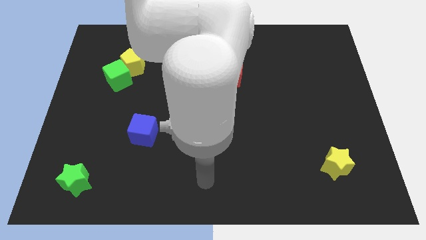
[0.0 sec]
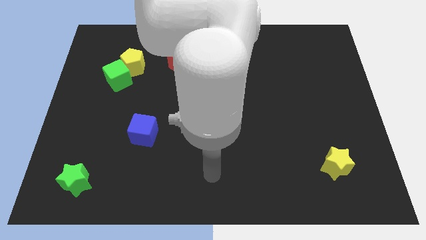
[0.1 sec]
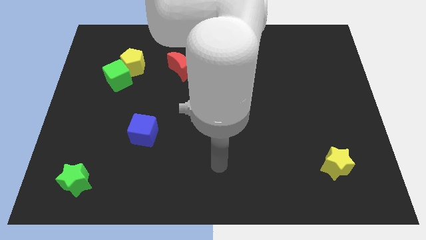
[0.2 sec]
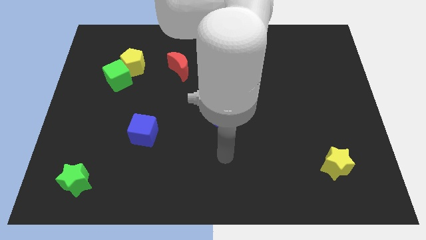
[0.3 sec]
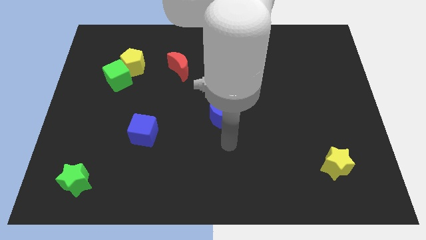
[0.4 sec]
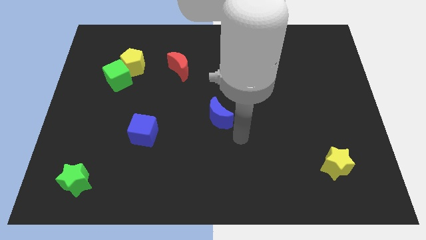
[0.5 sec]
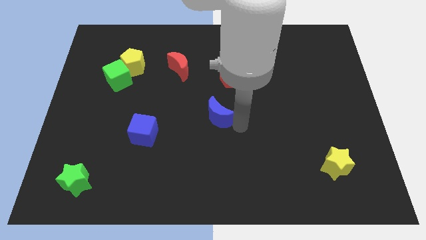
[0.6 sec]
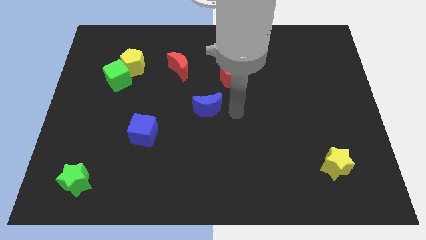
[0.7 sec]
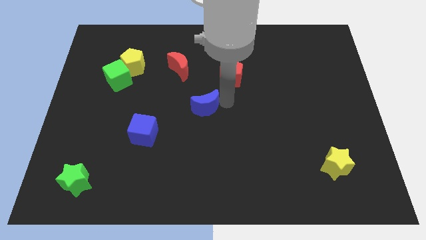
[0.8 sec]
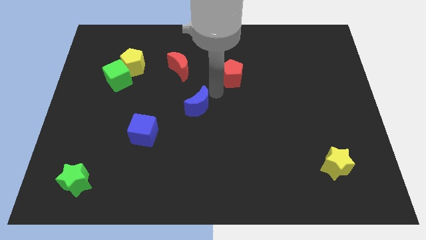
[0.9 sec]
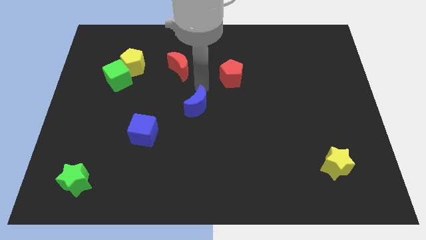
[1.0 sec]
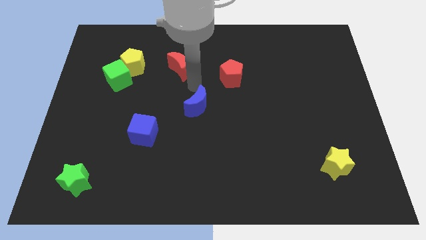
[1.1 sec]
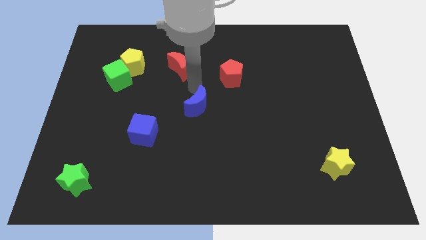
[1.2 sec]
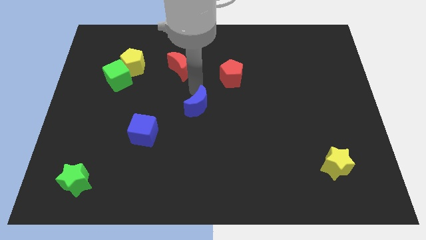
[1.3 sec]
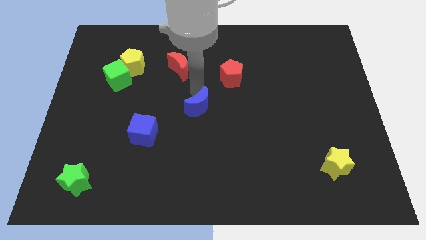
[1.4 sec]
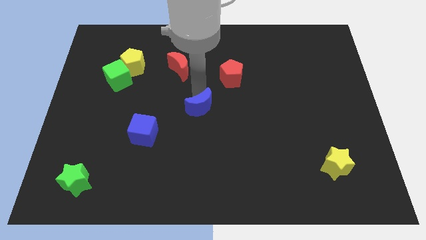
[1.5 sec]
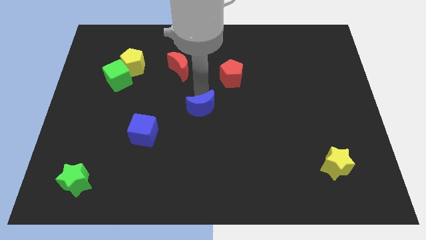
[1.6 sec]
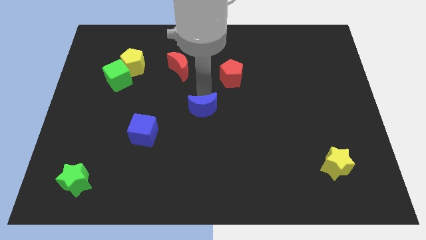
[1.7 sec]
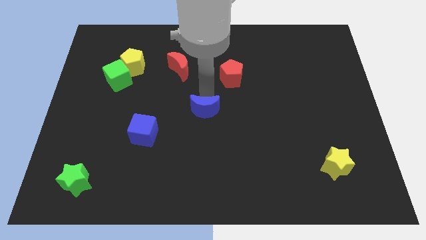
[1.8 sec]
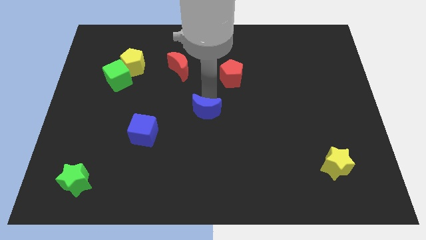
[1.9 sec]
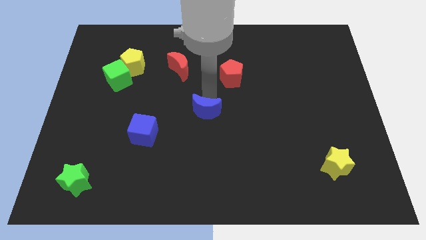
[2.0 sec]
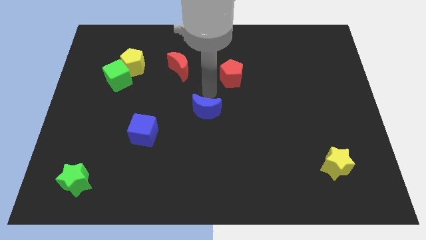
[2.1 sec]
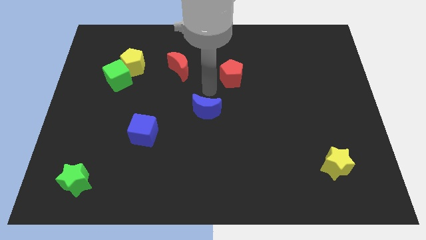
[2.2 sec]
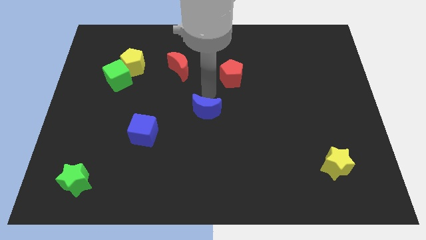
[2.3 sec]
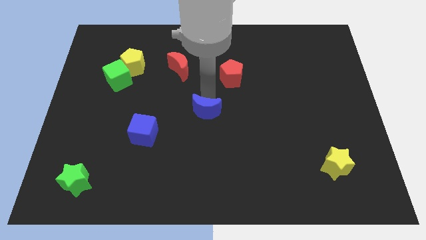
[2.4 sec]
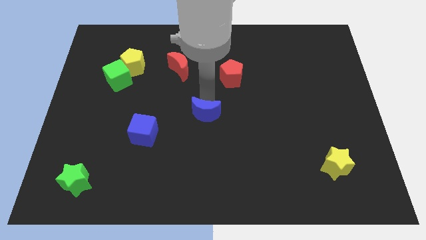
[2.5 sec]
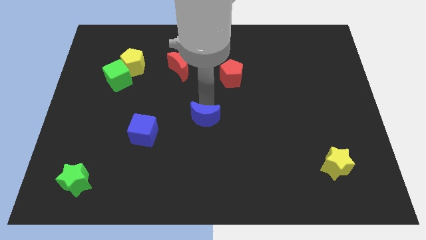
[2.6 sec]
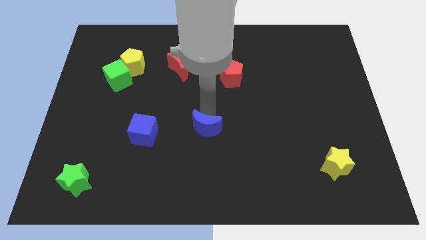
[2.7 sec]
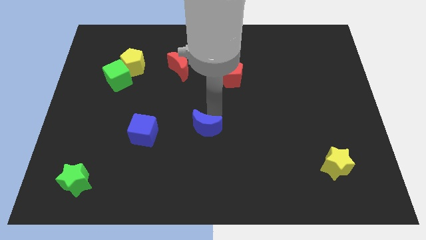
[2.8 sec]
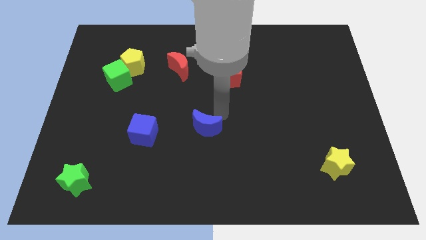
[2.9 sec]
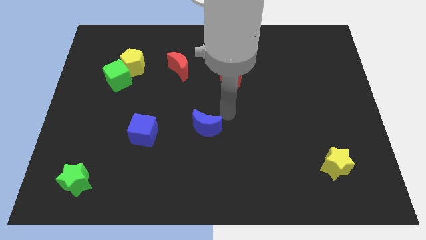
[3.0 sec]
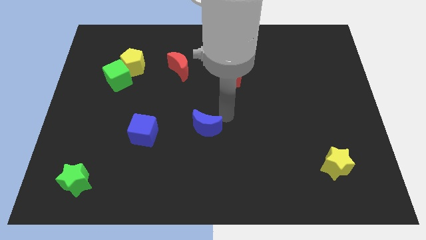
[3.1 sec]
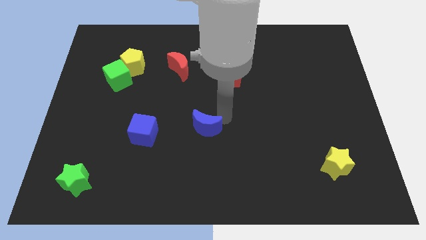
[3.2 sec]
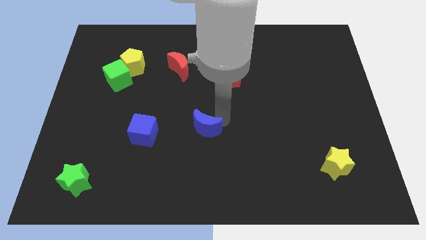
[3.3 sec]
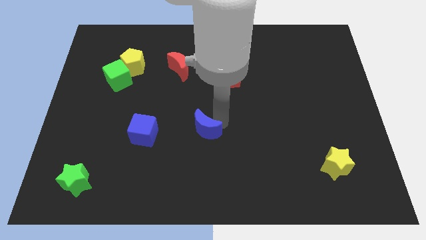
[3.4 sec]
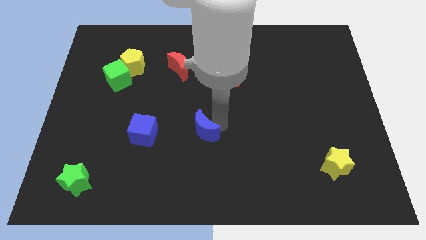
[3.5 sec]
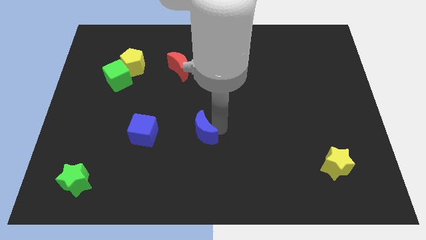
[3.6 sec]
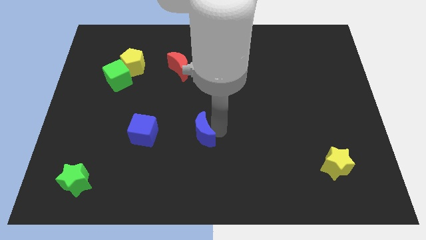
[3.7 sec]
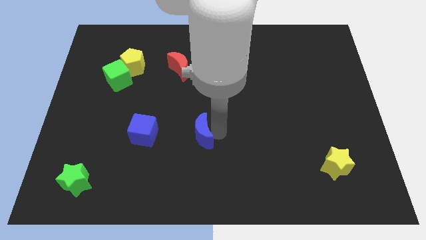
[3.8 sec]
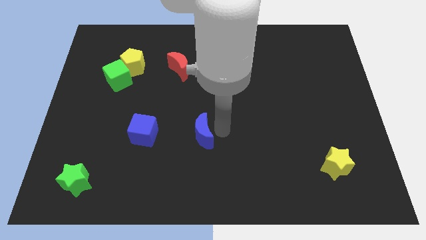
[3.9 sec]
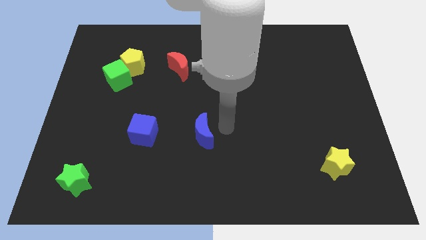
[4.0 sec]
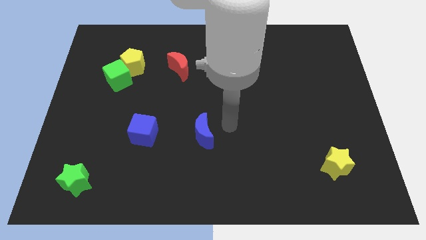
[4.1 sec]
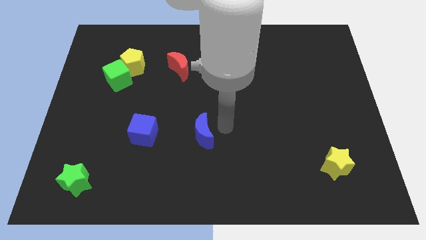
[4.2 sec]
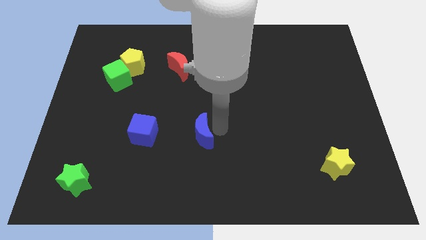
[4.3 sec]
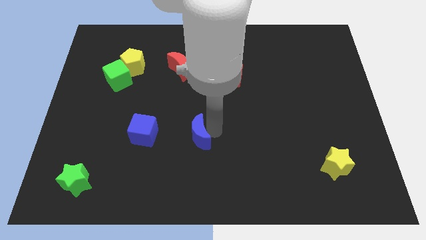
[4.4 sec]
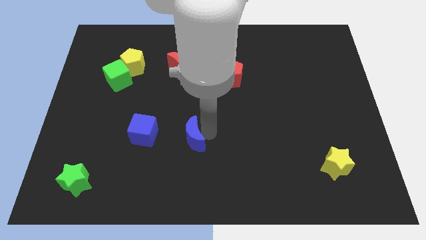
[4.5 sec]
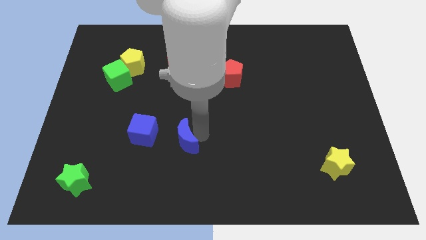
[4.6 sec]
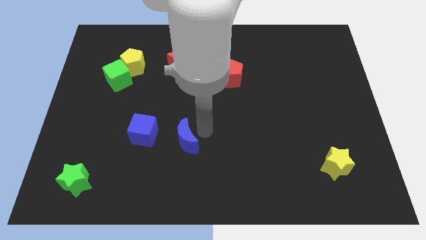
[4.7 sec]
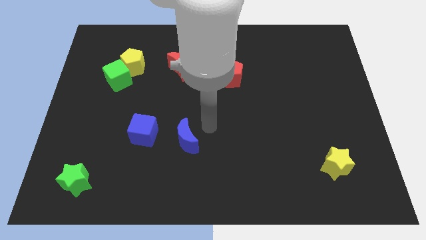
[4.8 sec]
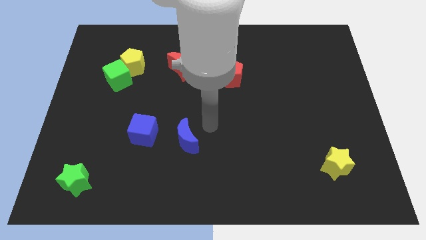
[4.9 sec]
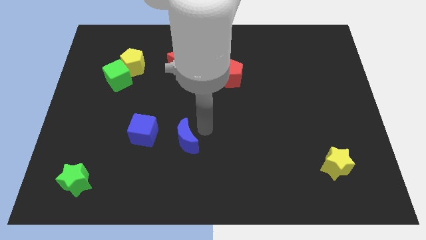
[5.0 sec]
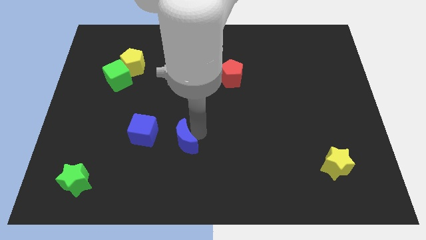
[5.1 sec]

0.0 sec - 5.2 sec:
push the blue moon to the bottom right side of the blue cube

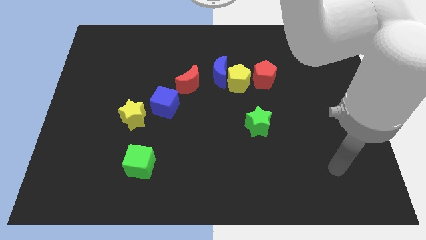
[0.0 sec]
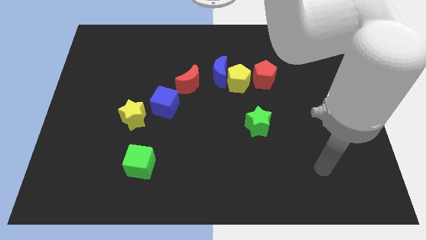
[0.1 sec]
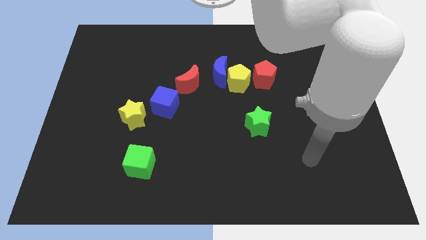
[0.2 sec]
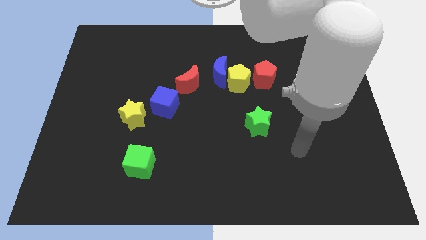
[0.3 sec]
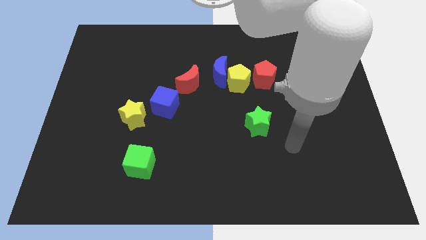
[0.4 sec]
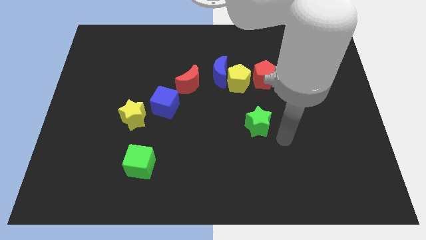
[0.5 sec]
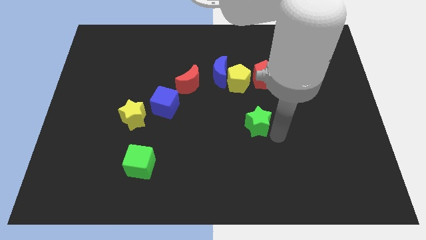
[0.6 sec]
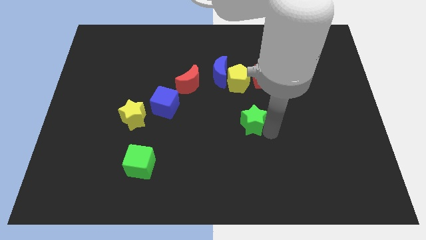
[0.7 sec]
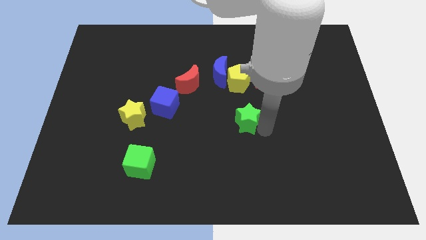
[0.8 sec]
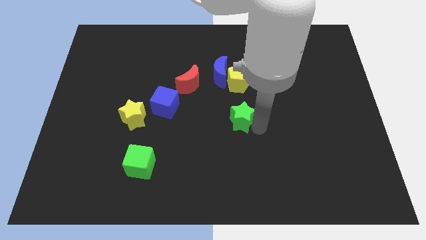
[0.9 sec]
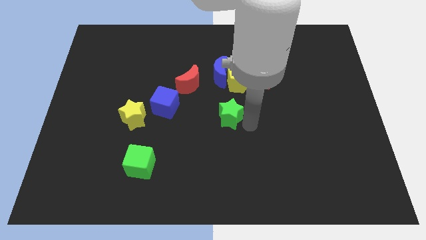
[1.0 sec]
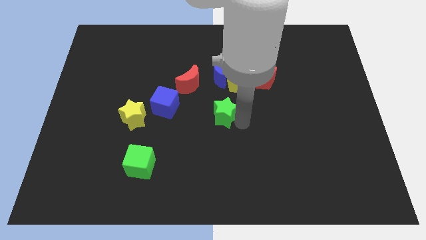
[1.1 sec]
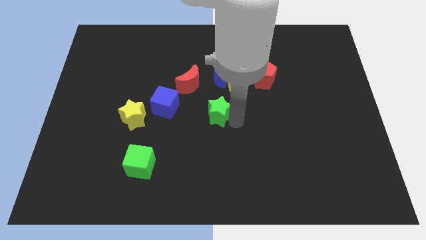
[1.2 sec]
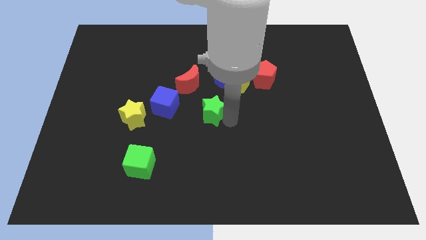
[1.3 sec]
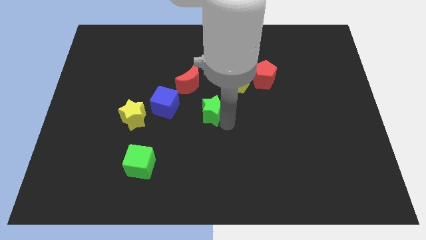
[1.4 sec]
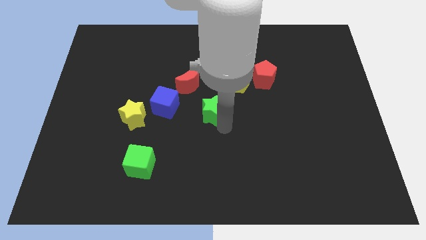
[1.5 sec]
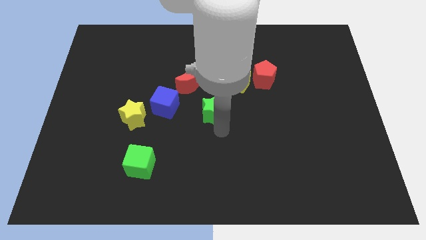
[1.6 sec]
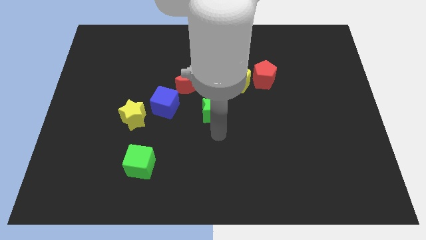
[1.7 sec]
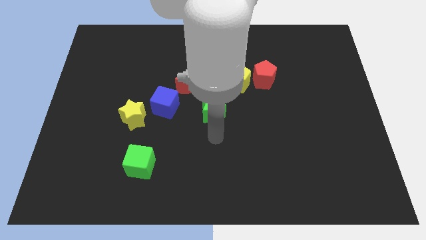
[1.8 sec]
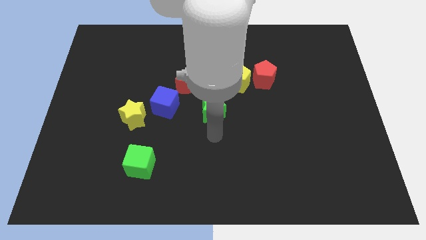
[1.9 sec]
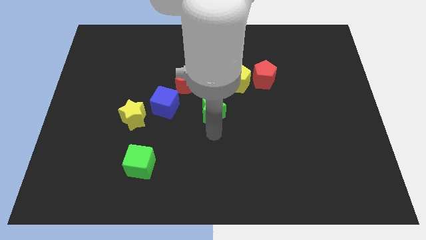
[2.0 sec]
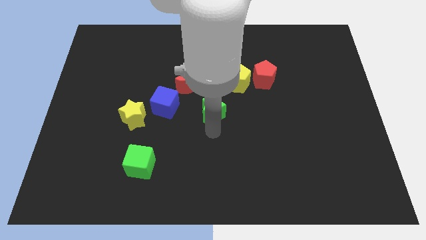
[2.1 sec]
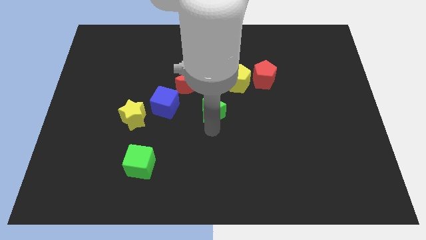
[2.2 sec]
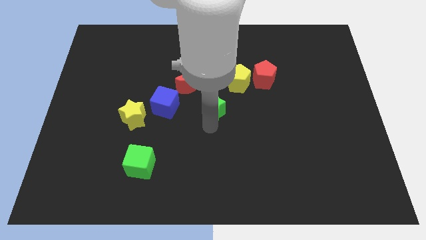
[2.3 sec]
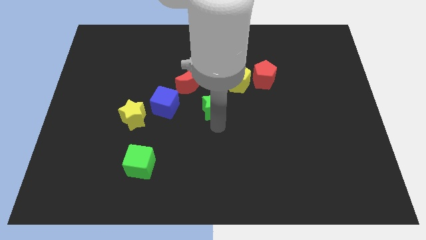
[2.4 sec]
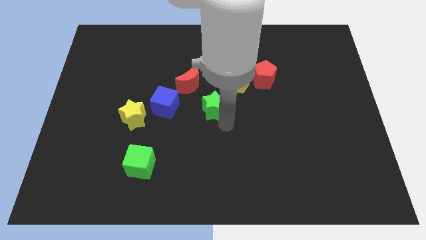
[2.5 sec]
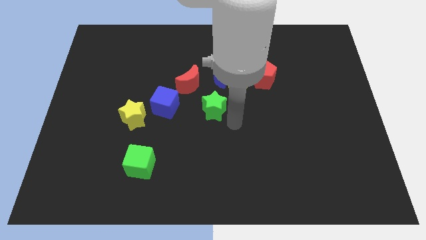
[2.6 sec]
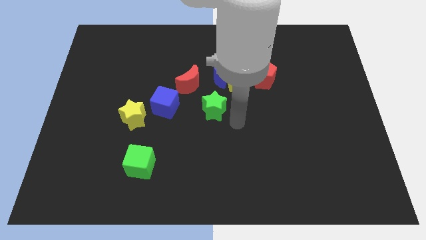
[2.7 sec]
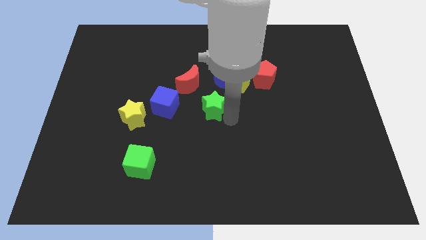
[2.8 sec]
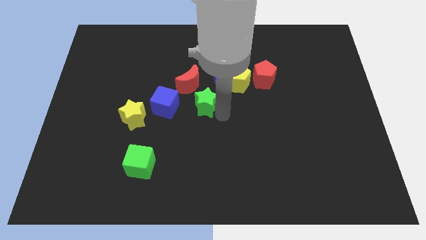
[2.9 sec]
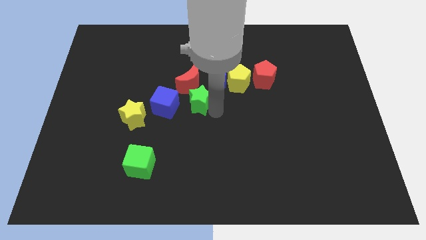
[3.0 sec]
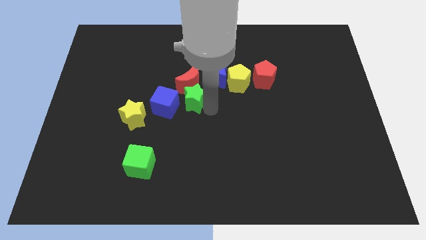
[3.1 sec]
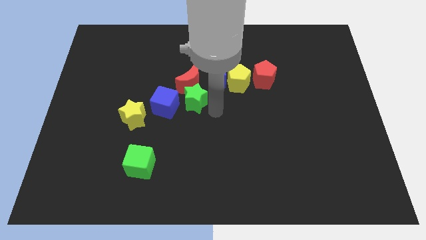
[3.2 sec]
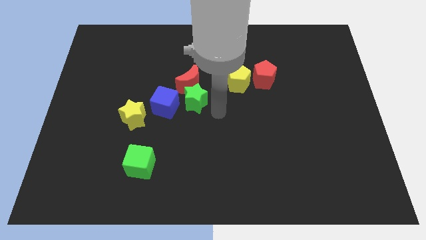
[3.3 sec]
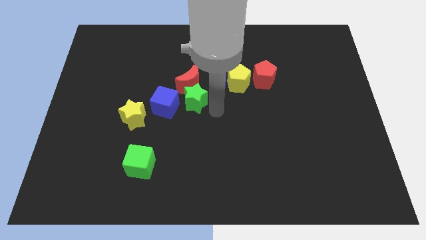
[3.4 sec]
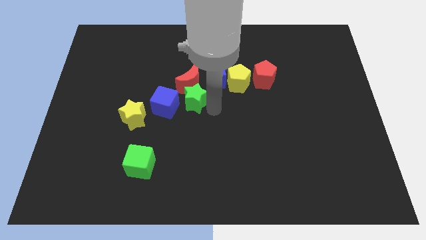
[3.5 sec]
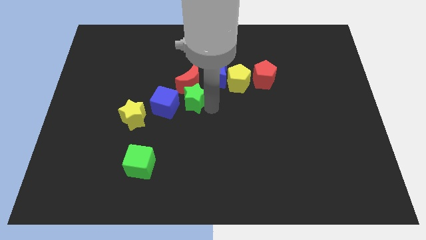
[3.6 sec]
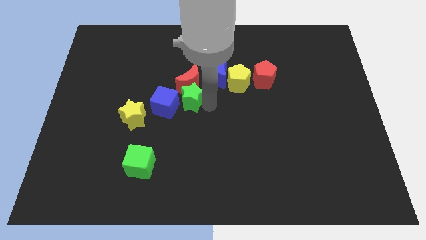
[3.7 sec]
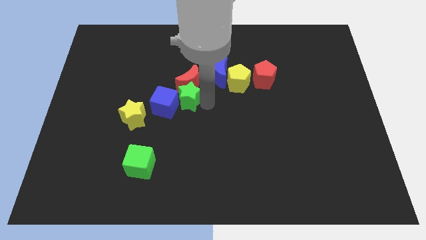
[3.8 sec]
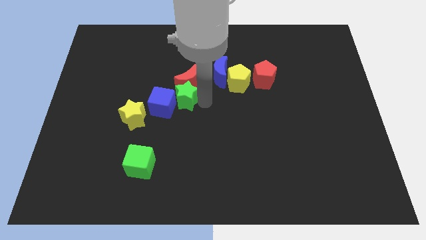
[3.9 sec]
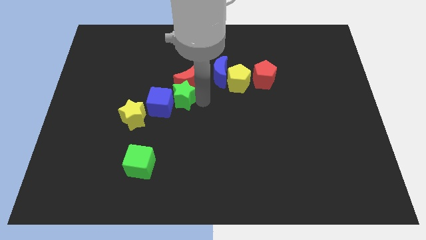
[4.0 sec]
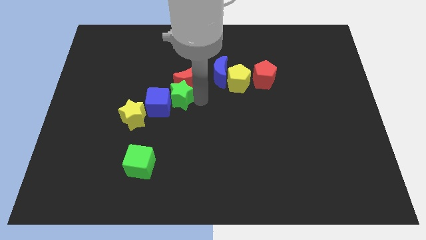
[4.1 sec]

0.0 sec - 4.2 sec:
put the green star diagonally up and to the right of the yellow star
